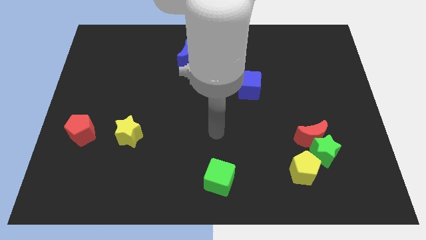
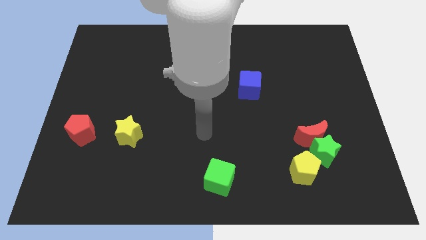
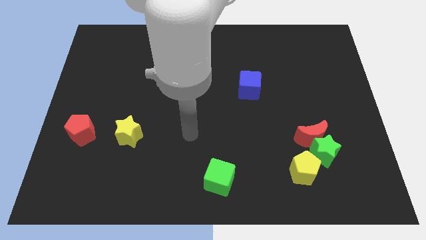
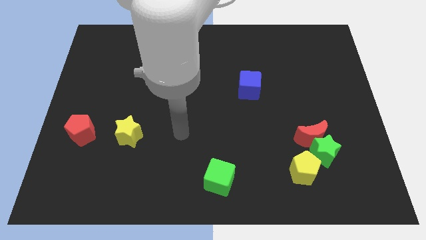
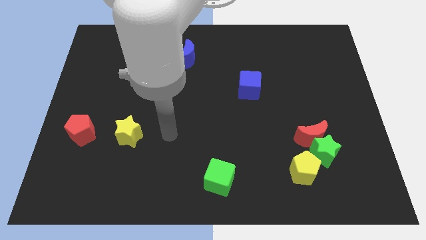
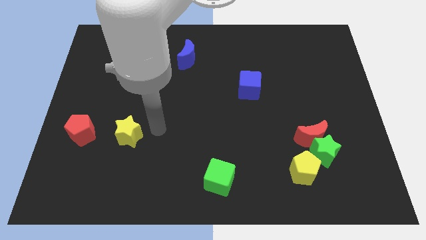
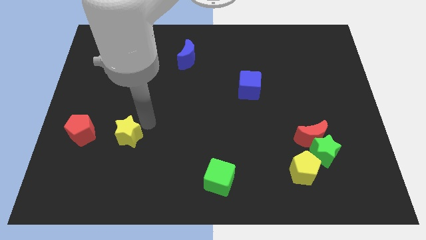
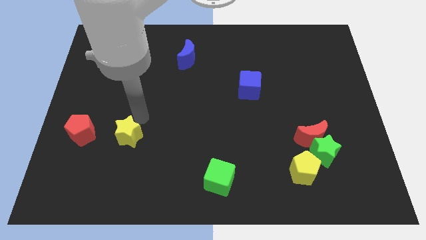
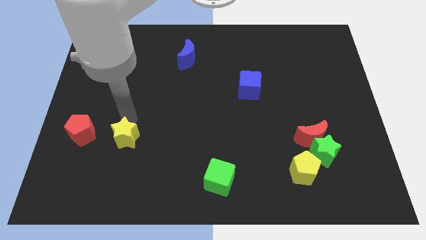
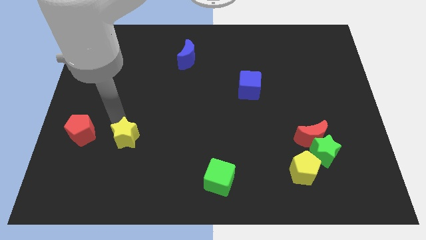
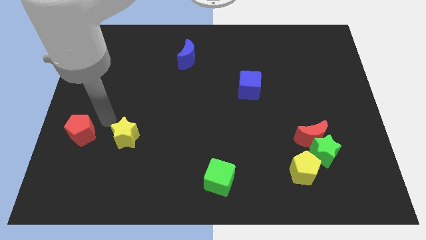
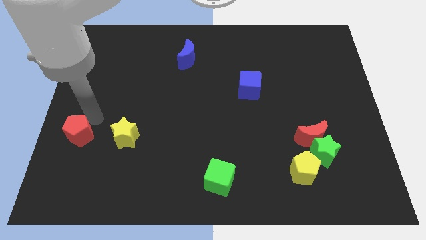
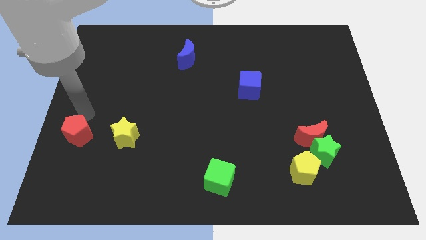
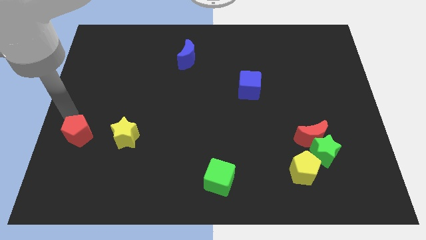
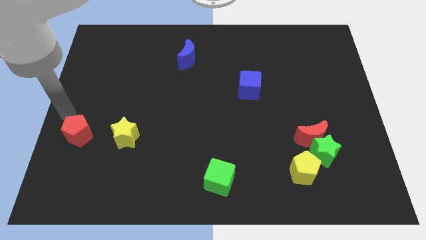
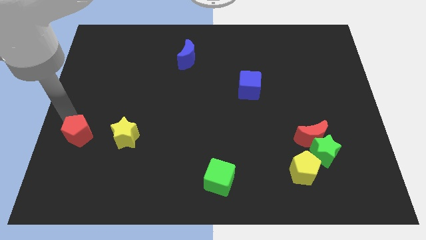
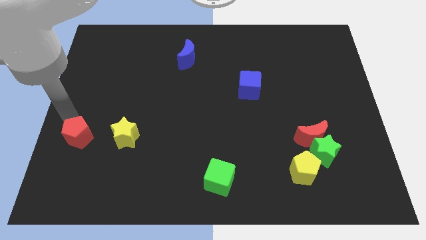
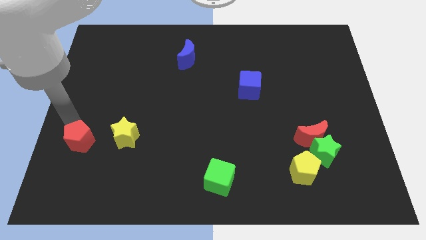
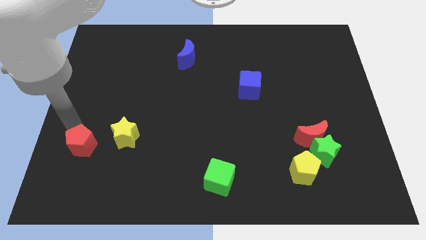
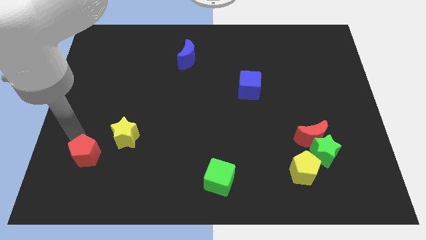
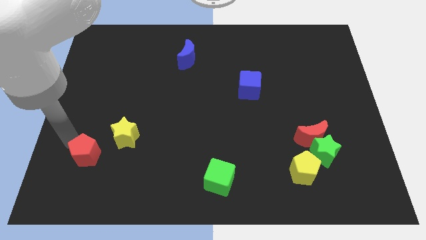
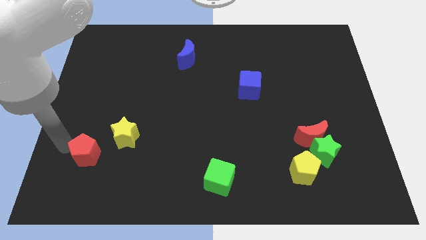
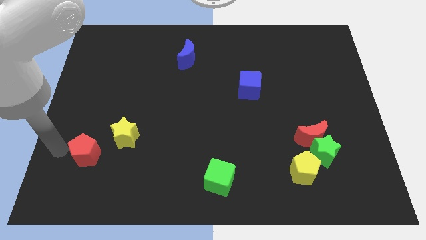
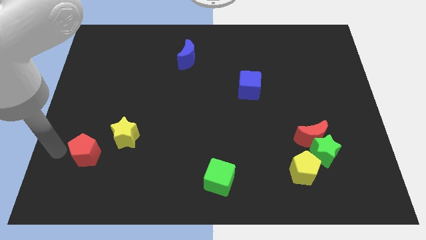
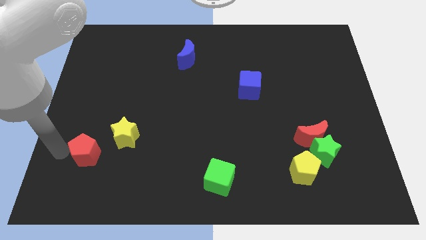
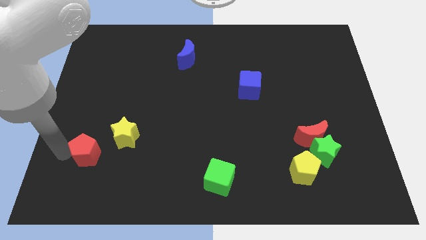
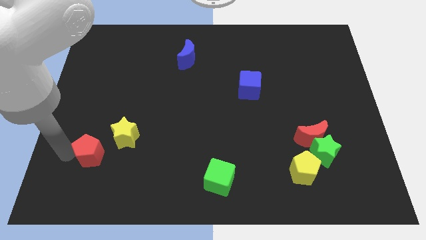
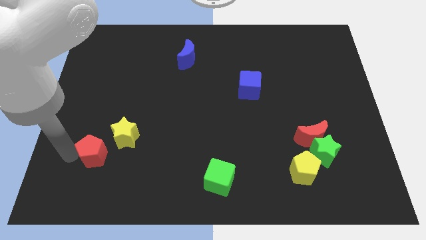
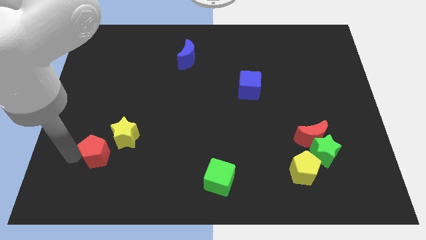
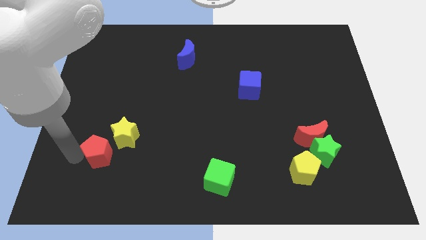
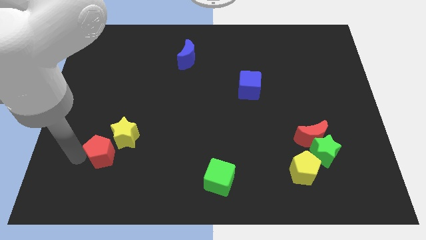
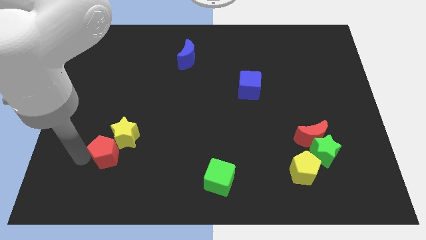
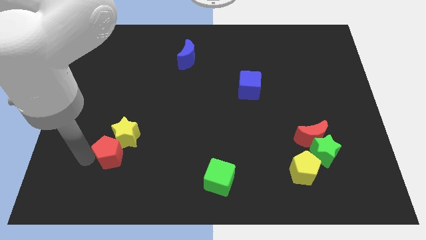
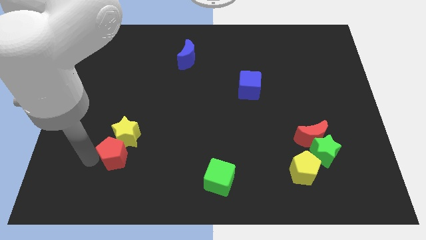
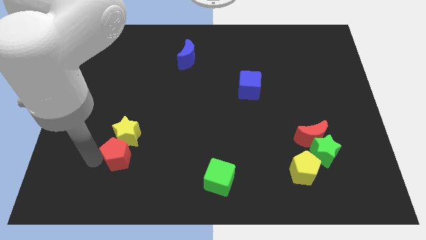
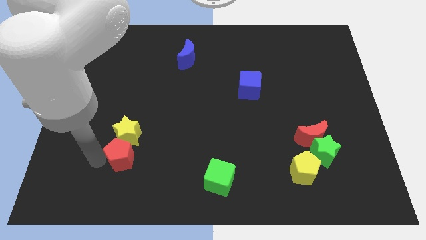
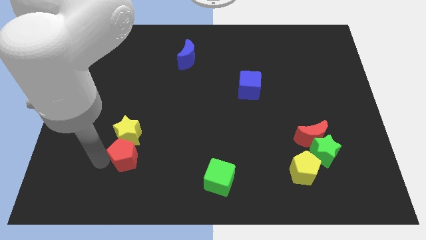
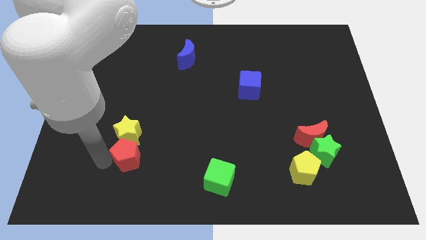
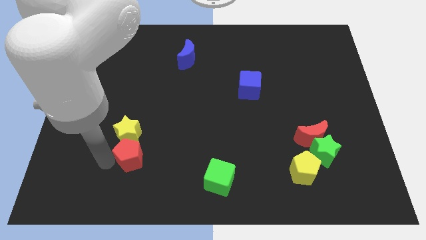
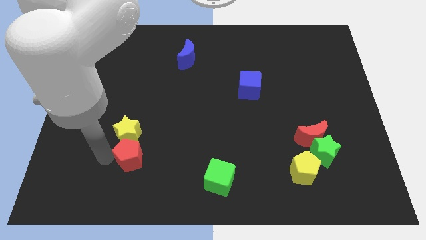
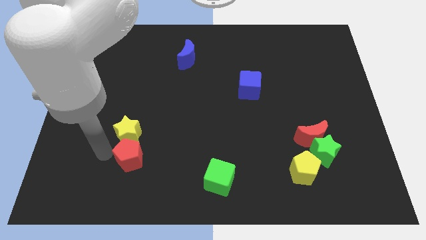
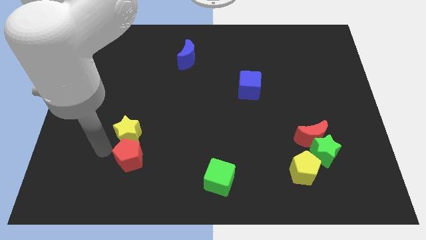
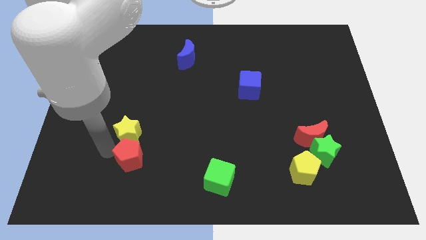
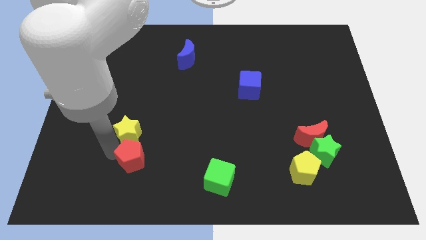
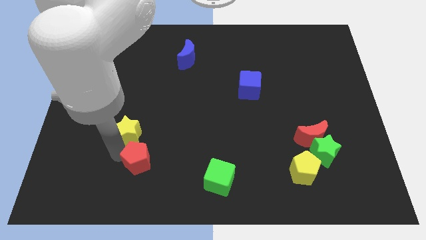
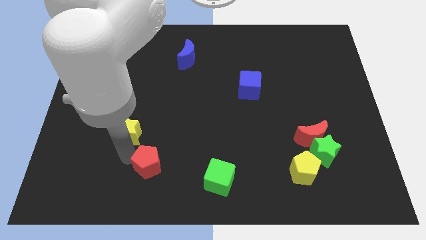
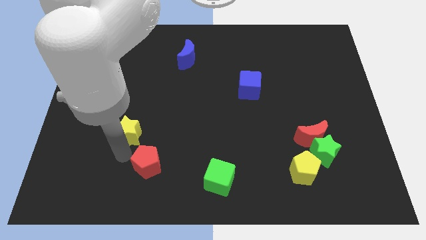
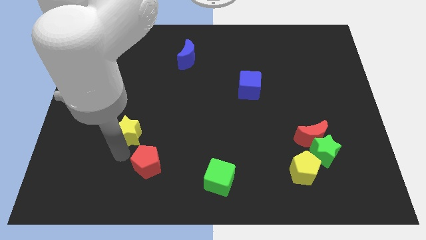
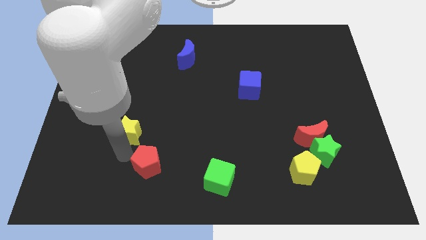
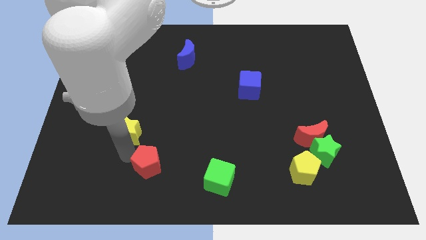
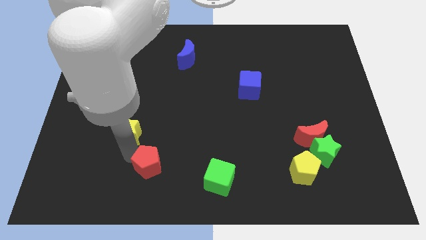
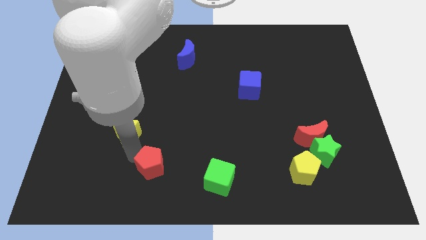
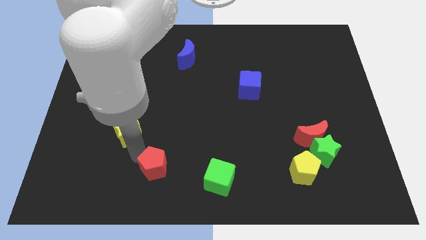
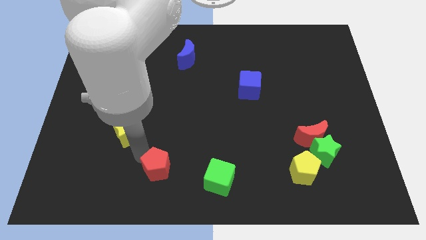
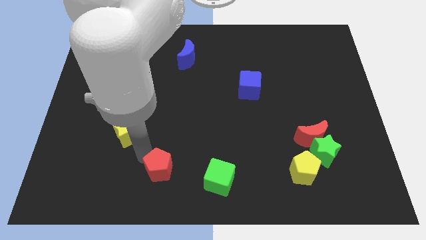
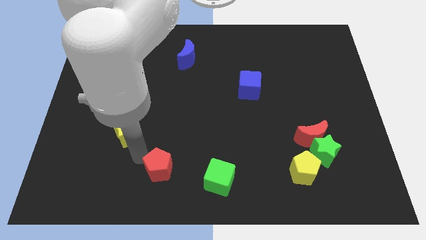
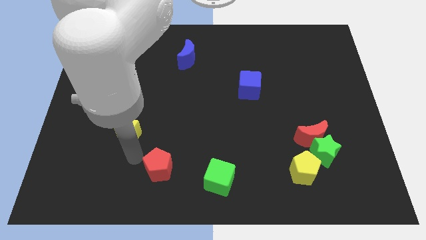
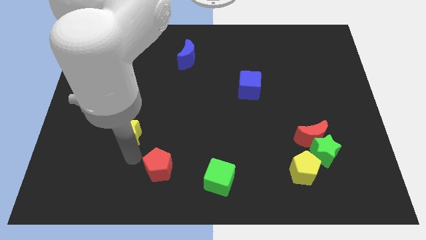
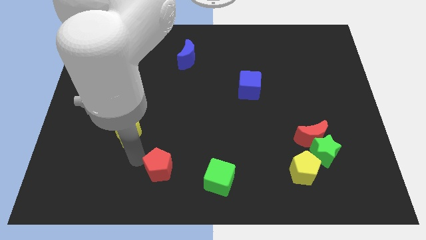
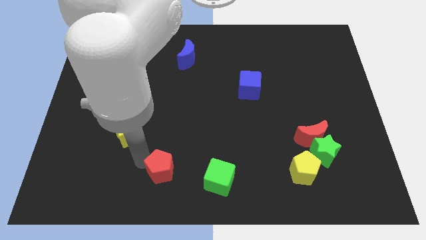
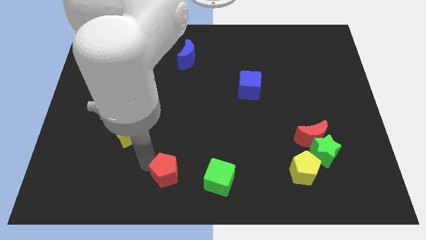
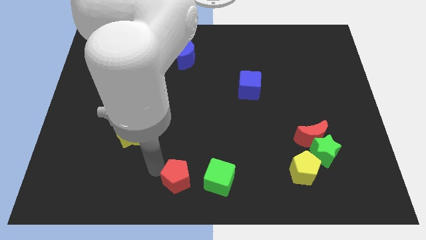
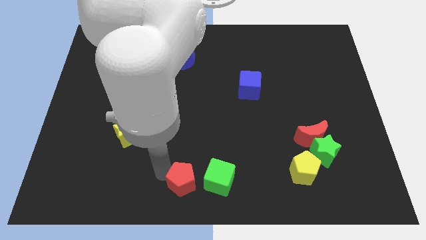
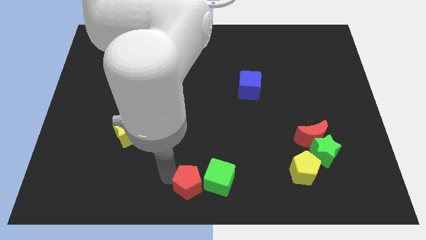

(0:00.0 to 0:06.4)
put the red pentagon close to the green cube

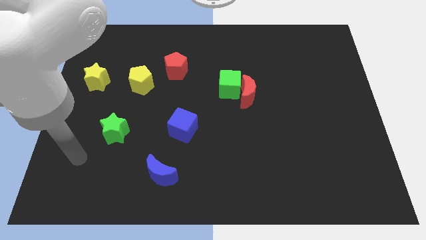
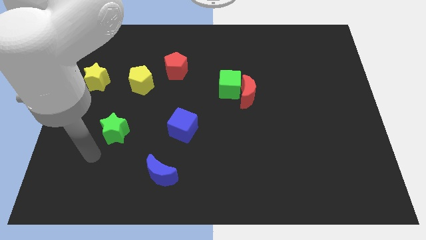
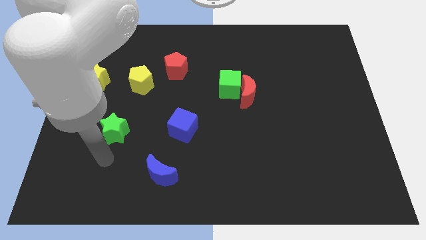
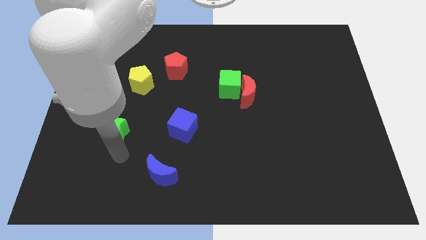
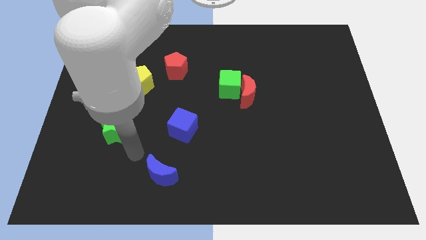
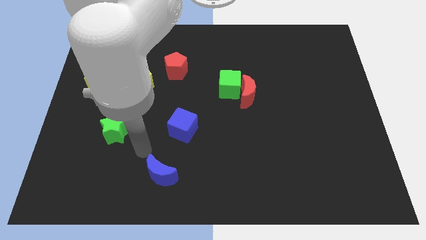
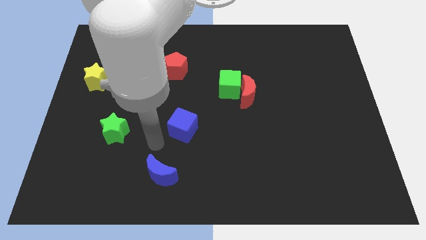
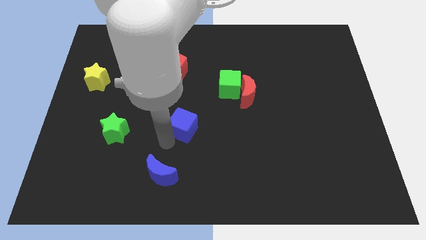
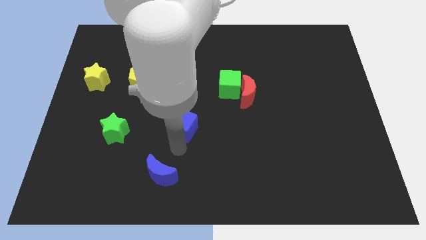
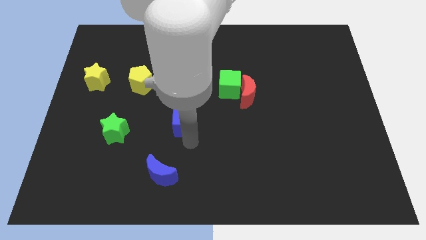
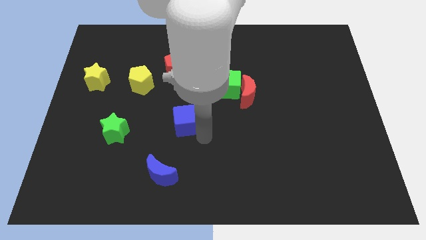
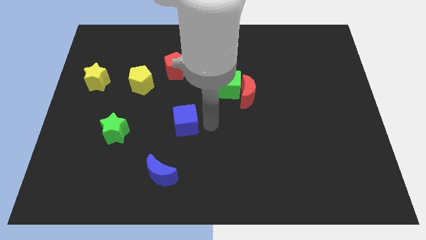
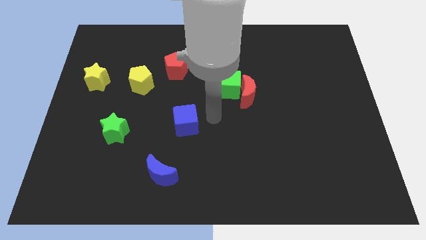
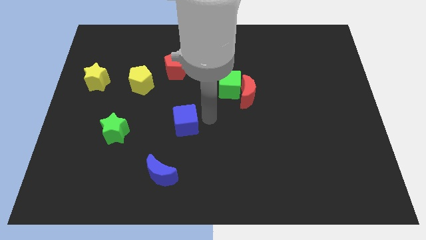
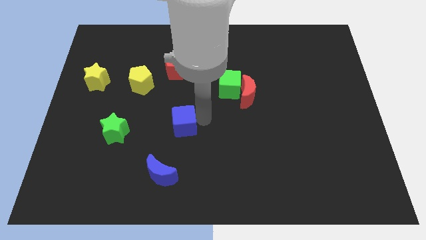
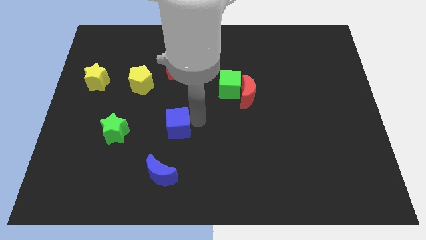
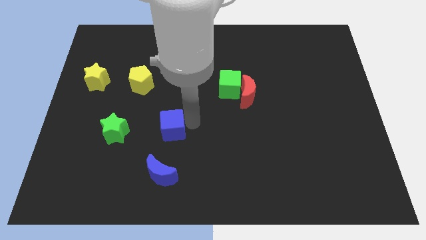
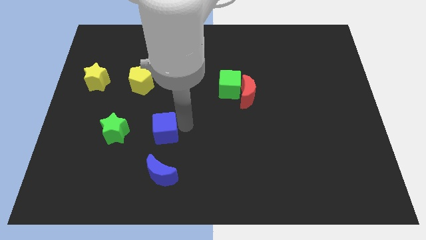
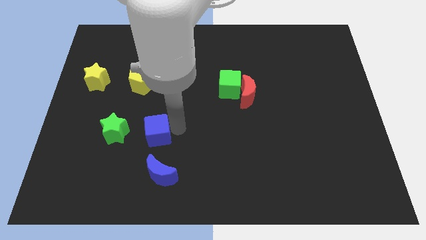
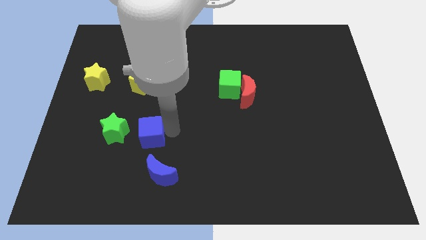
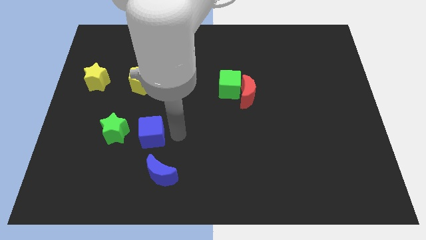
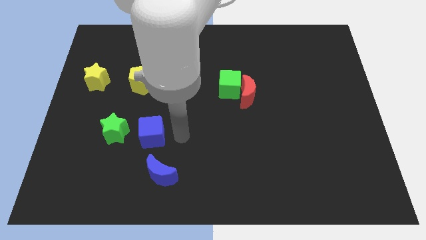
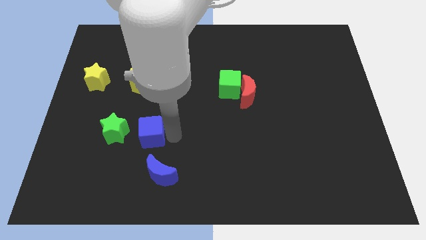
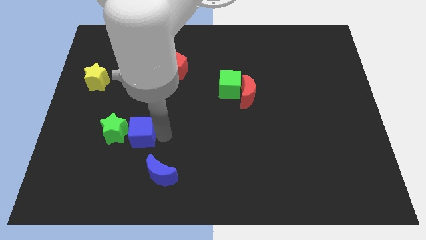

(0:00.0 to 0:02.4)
put the blue cube towards the green star
